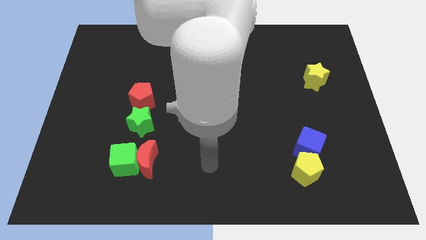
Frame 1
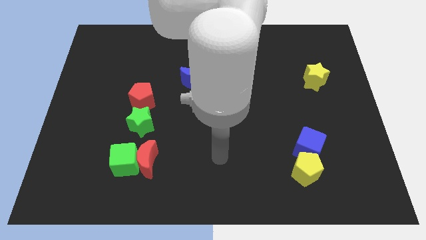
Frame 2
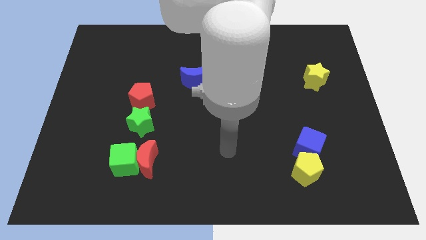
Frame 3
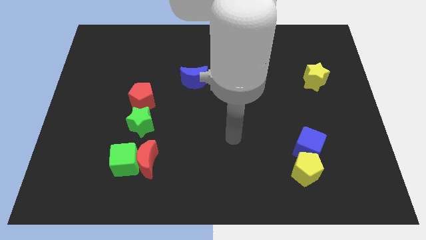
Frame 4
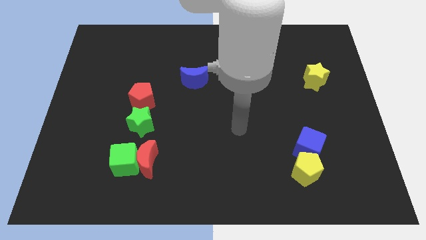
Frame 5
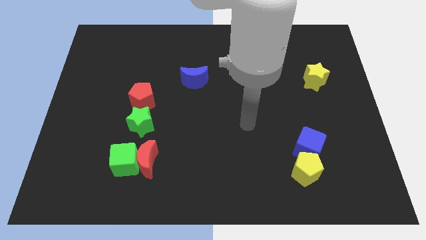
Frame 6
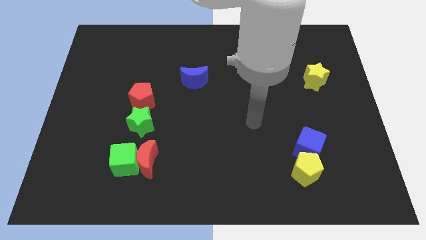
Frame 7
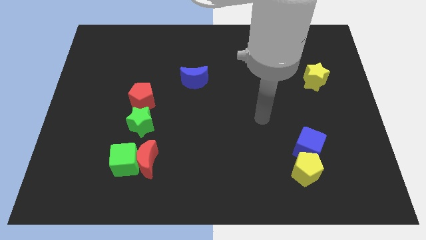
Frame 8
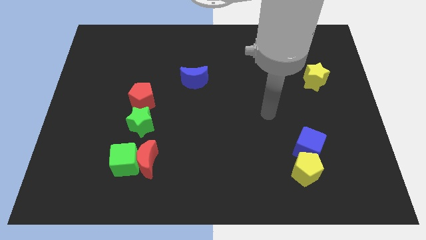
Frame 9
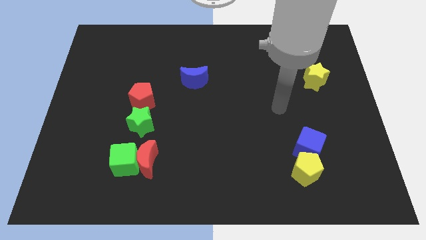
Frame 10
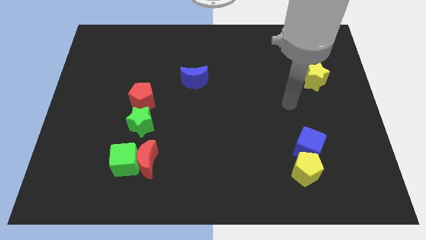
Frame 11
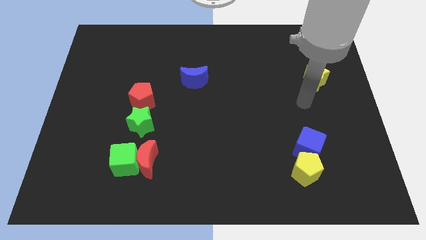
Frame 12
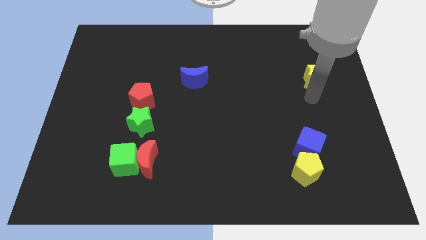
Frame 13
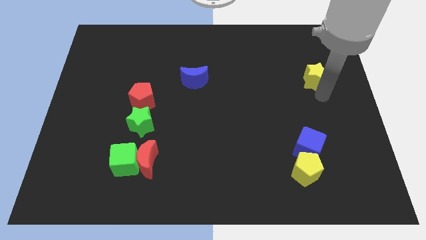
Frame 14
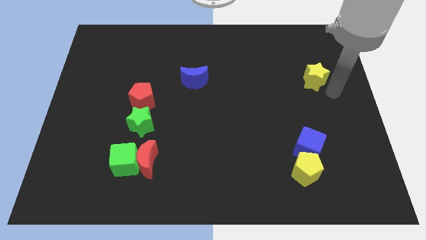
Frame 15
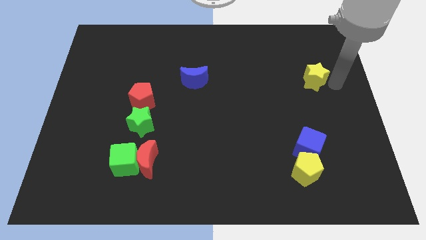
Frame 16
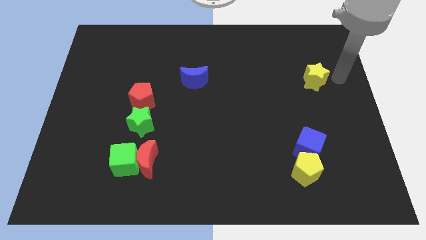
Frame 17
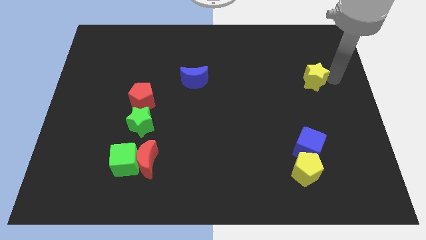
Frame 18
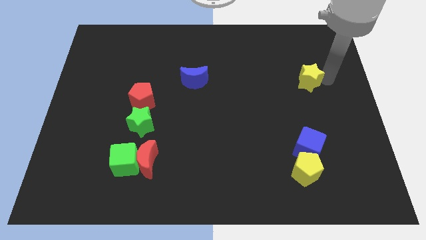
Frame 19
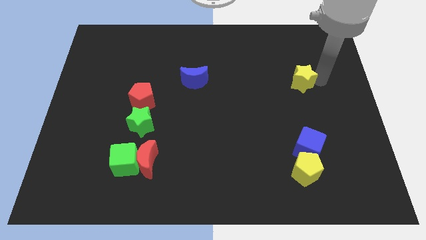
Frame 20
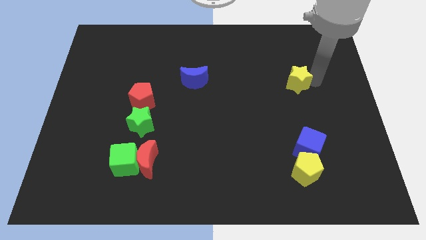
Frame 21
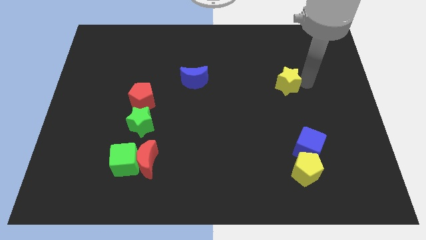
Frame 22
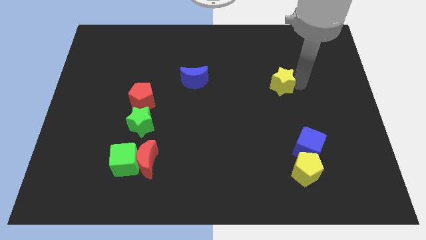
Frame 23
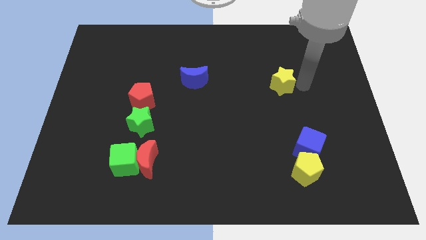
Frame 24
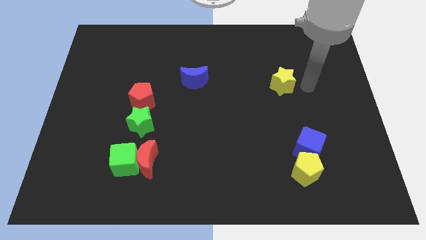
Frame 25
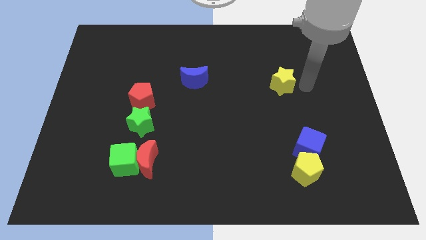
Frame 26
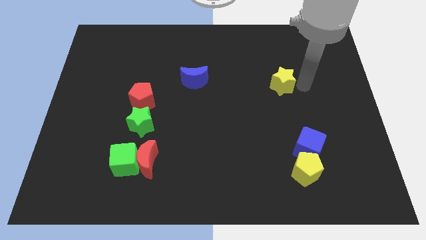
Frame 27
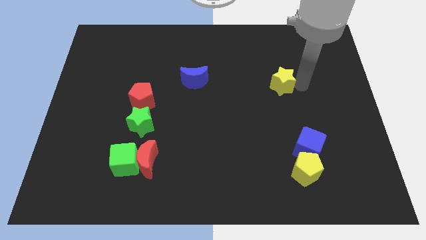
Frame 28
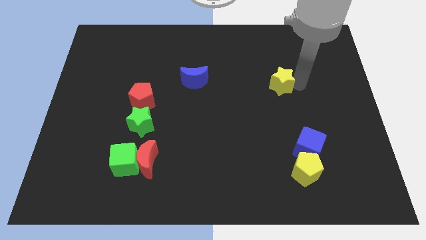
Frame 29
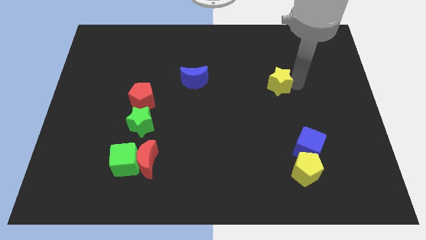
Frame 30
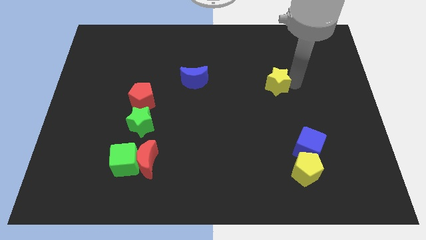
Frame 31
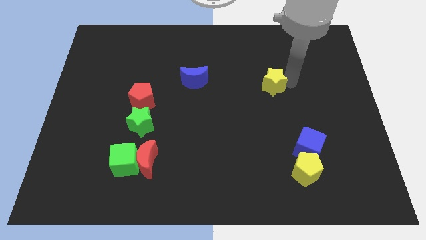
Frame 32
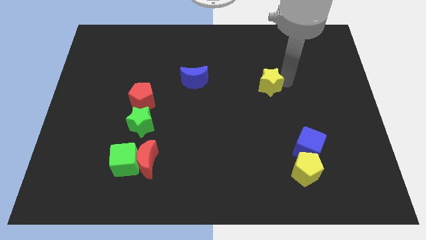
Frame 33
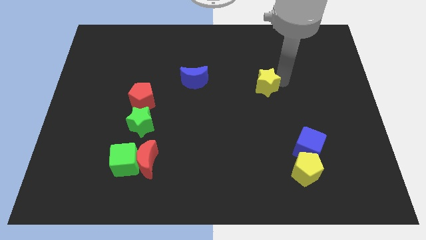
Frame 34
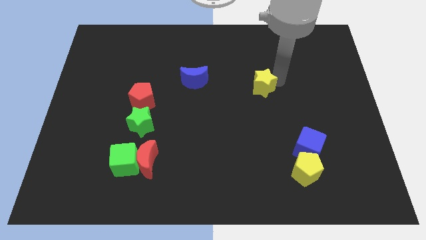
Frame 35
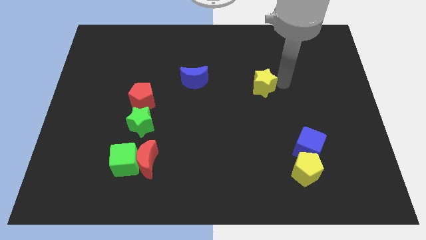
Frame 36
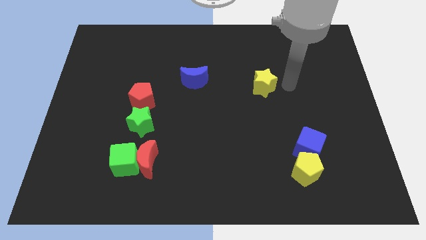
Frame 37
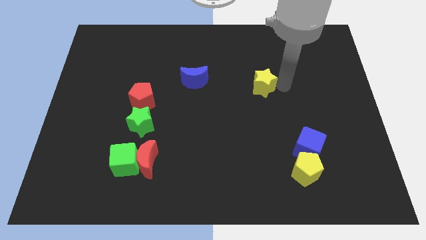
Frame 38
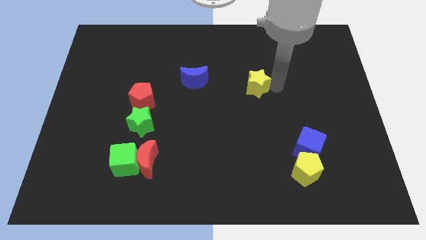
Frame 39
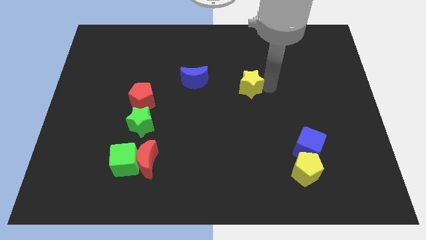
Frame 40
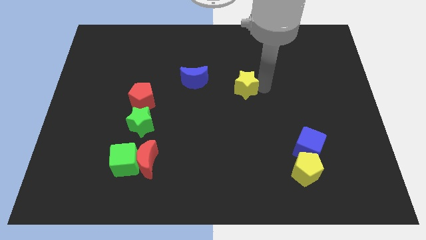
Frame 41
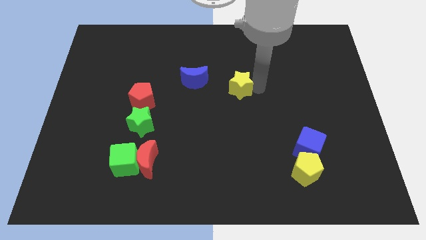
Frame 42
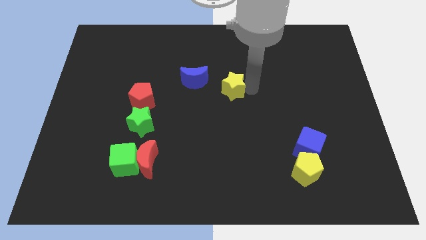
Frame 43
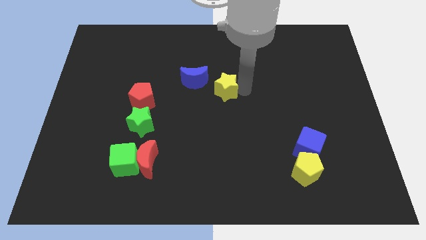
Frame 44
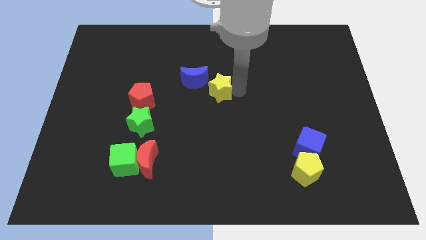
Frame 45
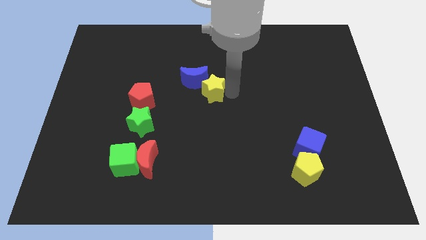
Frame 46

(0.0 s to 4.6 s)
put the yellow star towards the blue moon

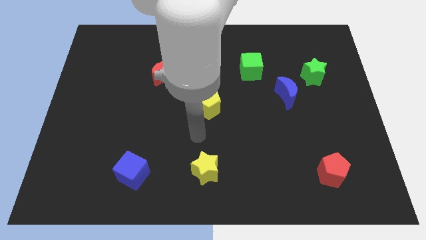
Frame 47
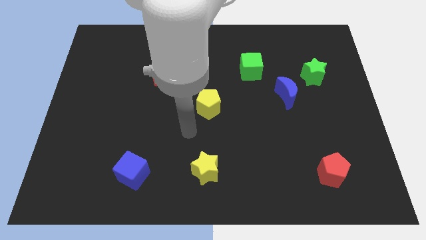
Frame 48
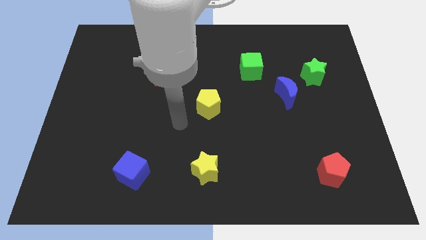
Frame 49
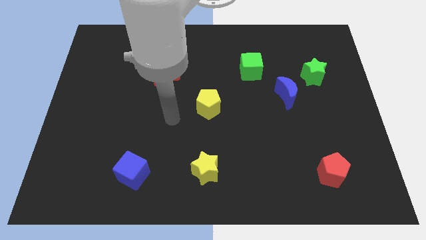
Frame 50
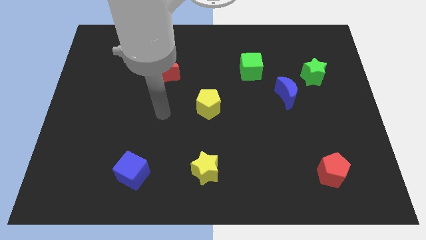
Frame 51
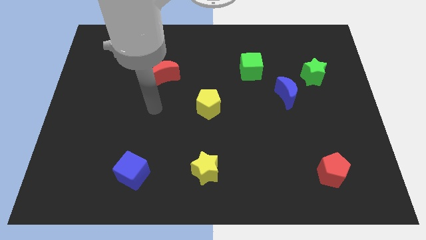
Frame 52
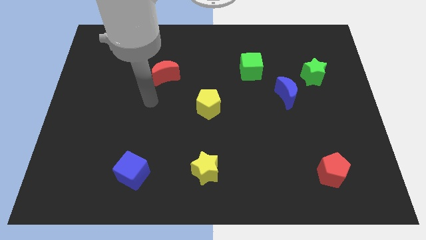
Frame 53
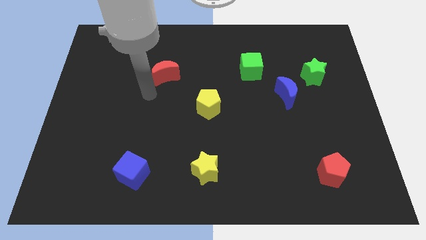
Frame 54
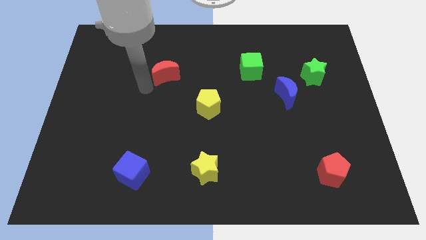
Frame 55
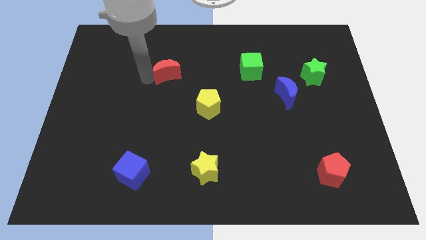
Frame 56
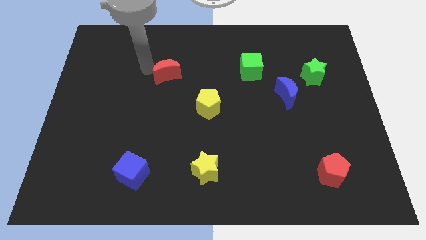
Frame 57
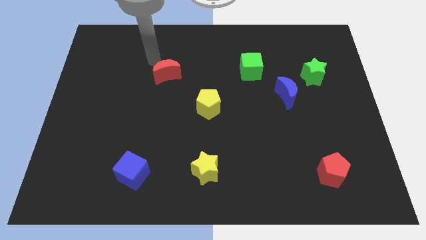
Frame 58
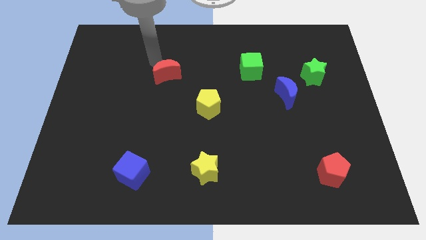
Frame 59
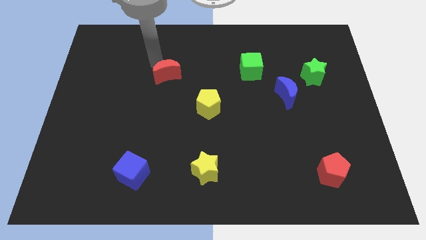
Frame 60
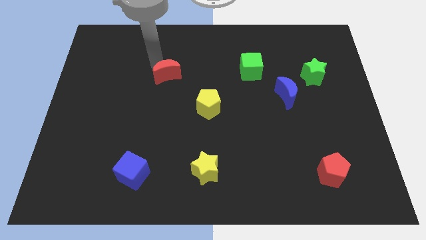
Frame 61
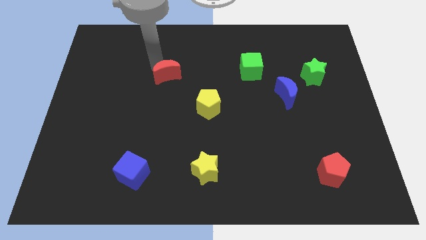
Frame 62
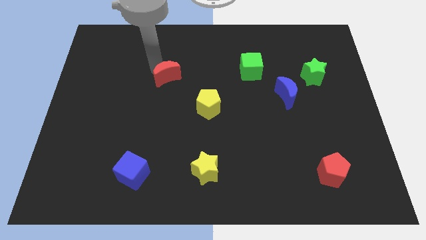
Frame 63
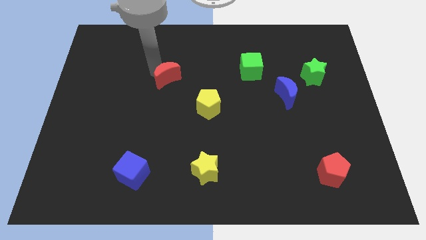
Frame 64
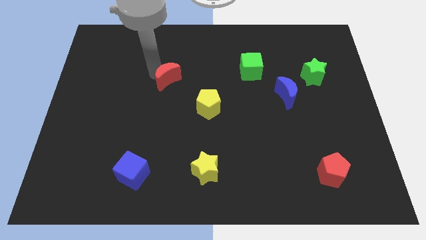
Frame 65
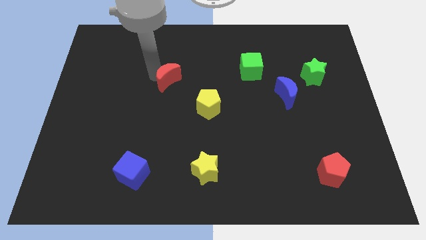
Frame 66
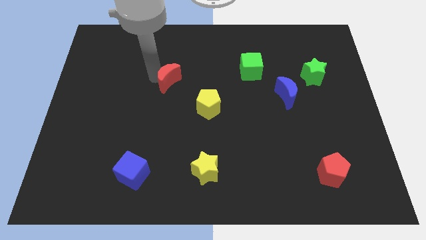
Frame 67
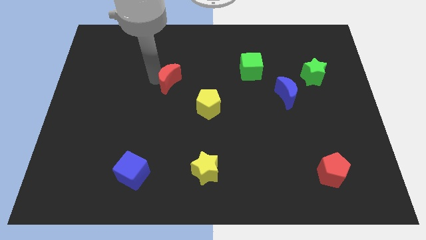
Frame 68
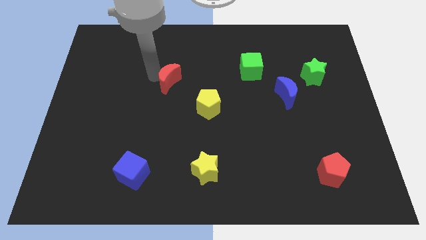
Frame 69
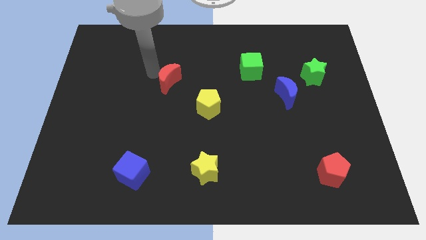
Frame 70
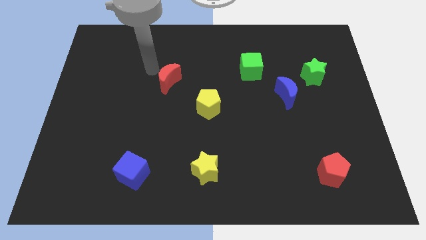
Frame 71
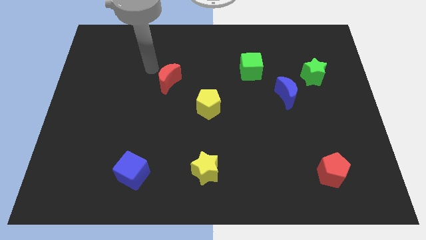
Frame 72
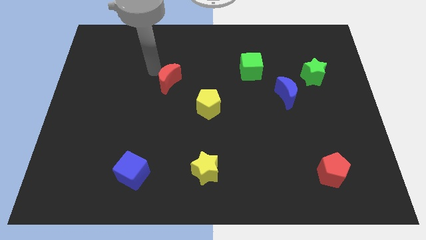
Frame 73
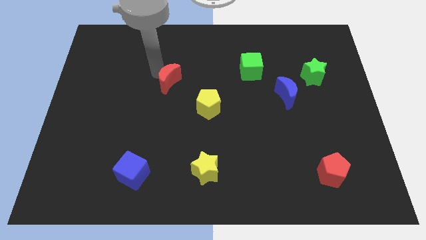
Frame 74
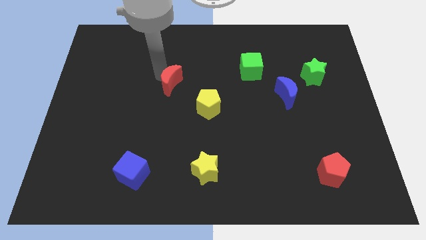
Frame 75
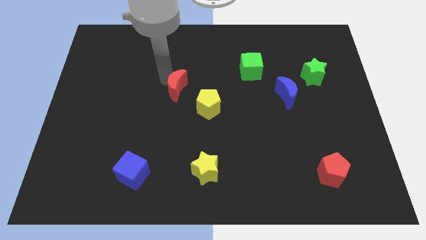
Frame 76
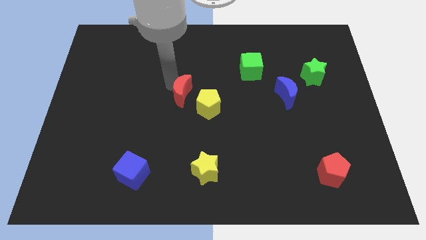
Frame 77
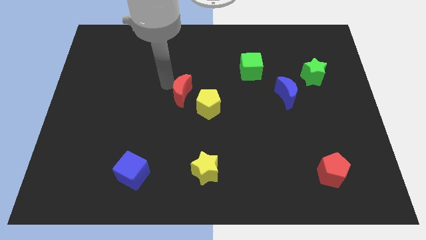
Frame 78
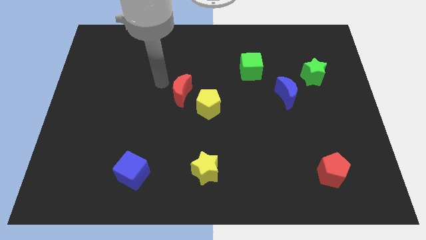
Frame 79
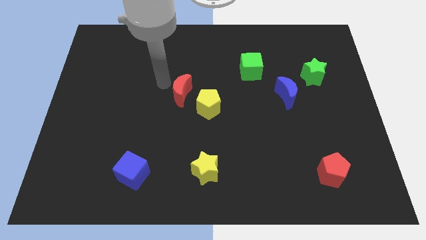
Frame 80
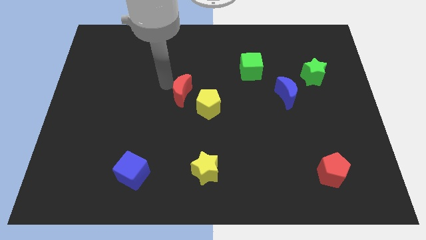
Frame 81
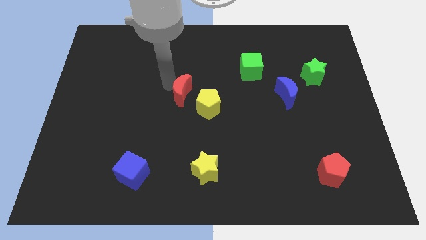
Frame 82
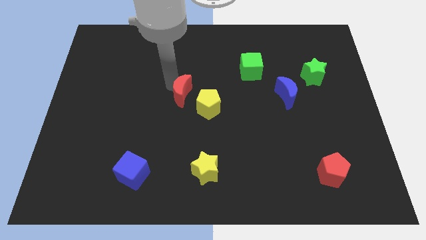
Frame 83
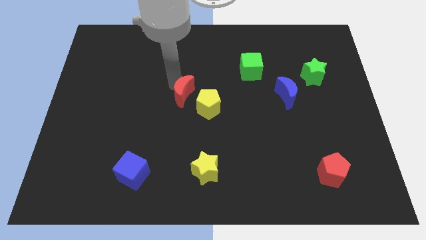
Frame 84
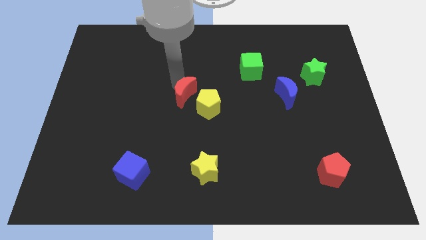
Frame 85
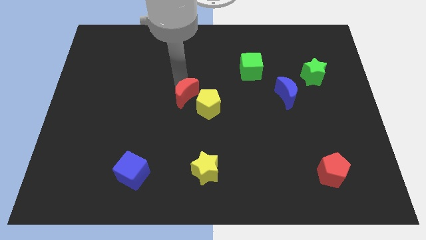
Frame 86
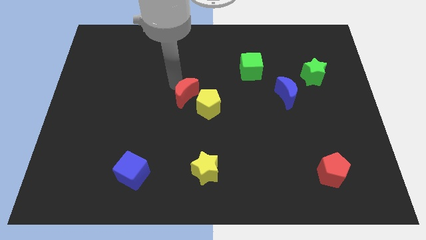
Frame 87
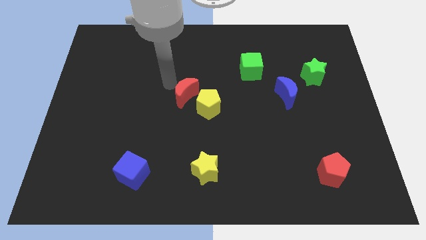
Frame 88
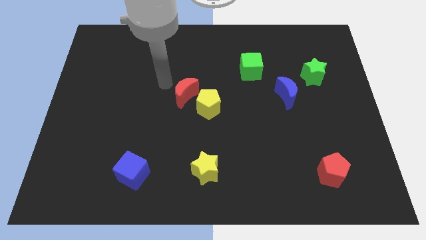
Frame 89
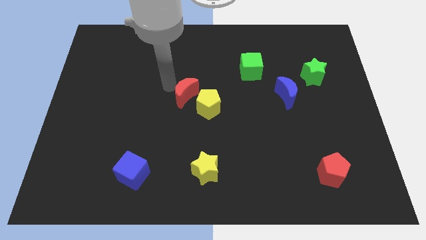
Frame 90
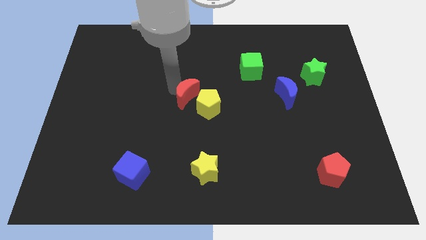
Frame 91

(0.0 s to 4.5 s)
slide the red moon close to the yellow pentagon
